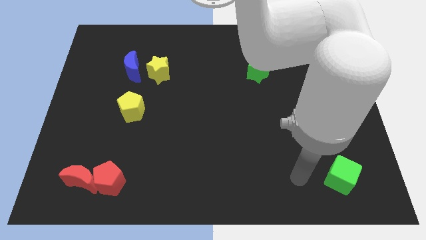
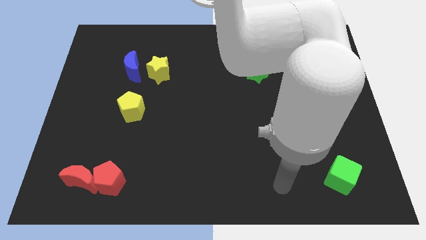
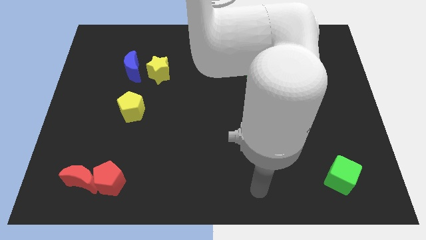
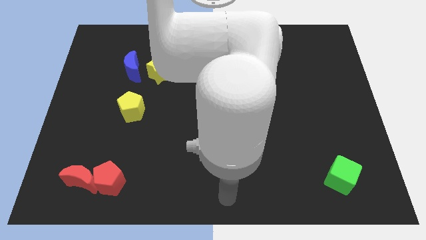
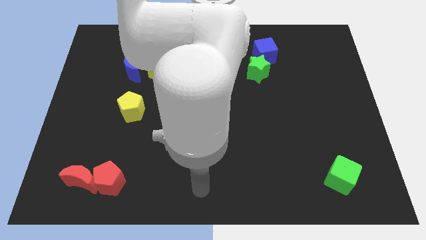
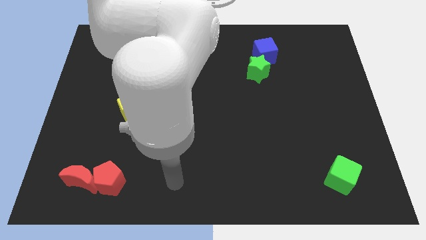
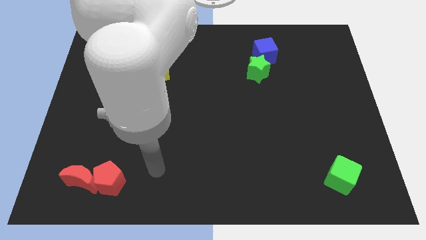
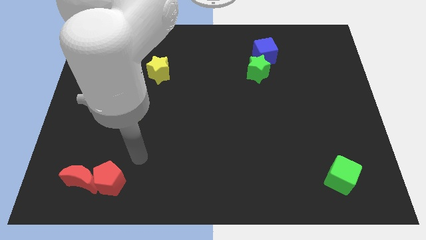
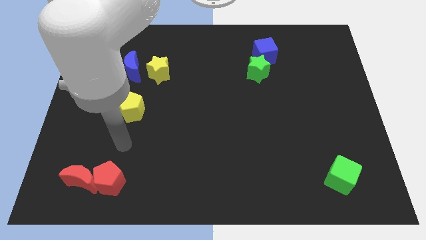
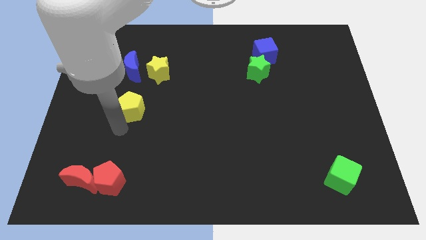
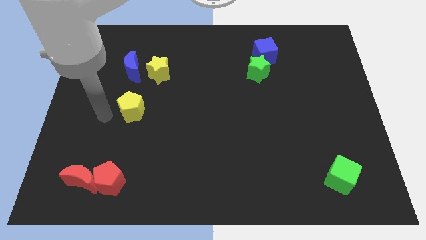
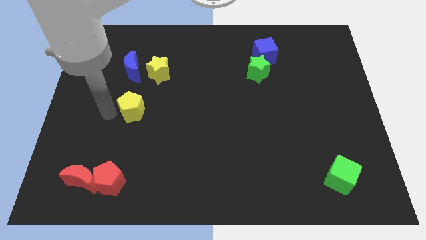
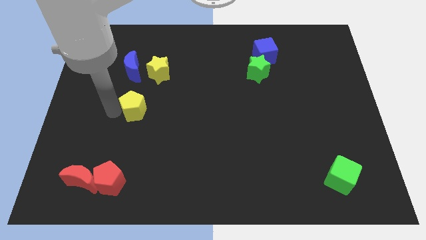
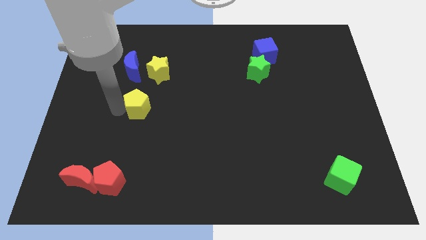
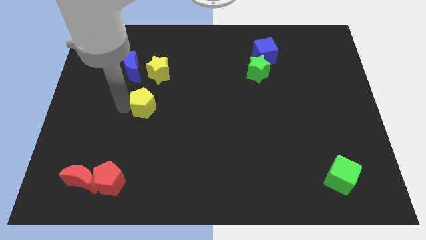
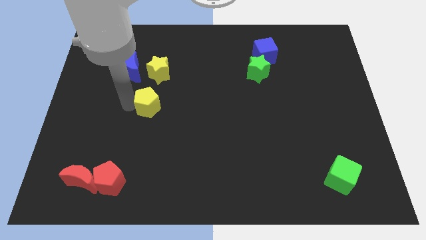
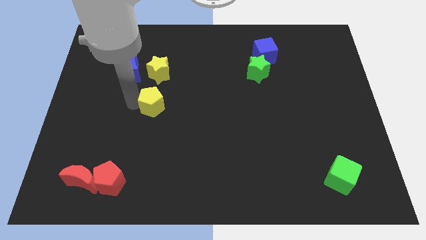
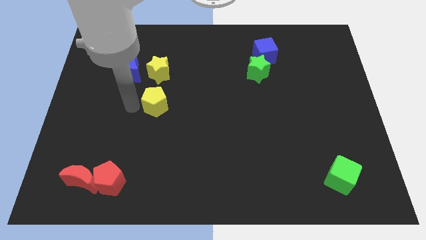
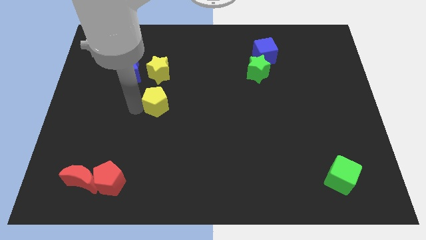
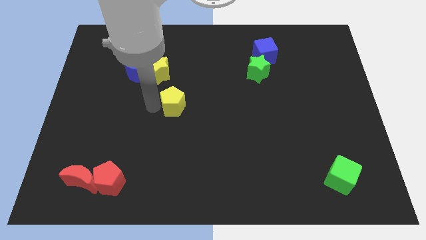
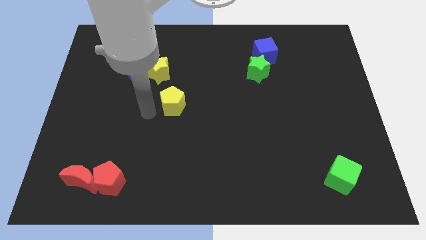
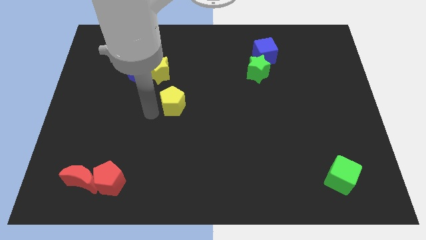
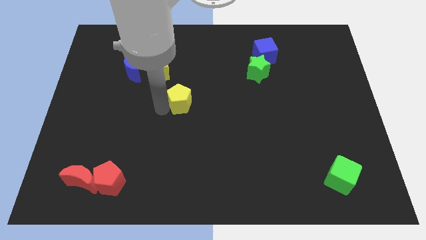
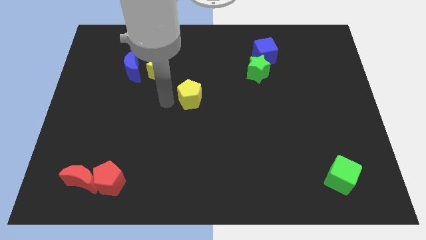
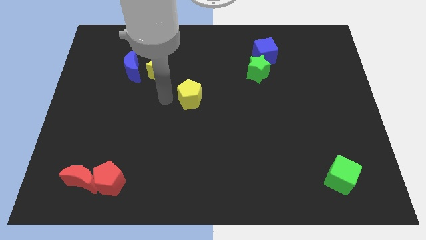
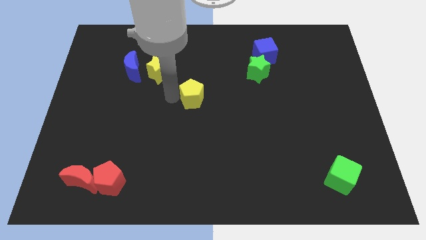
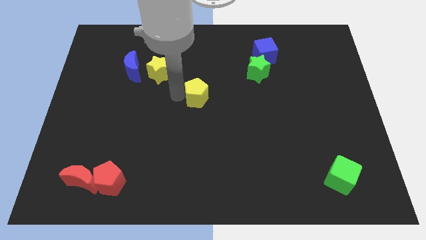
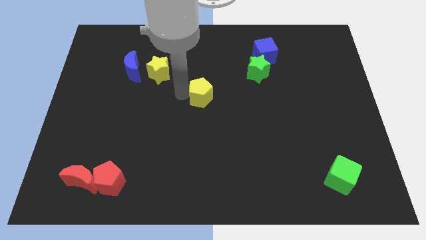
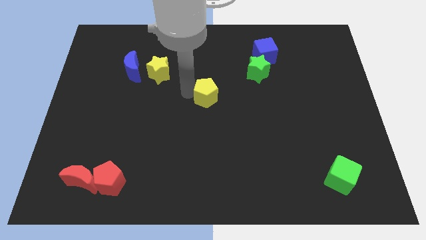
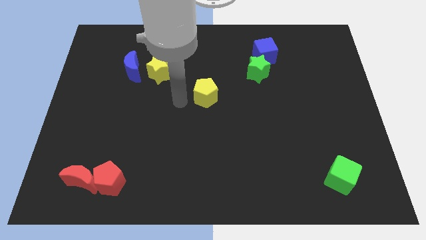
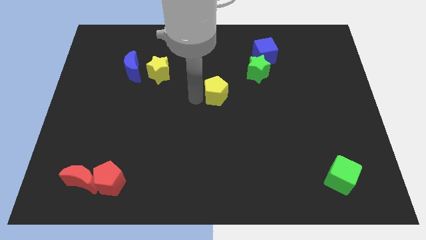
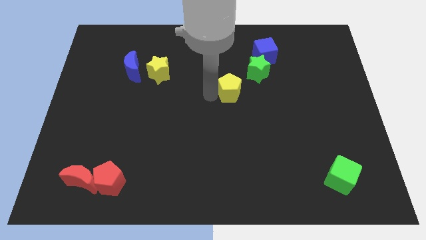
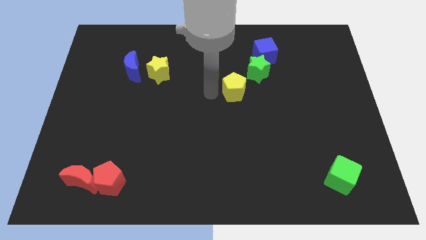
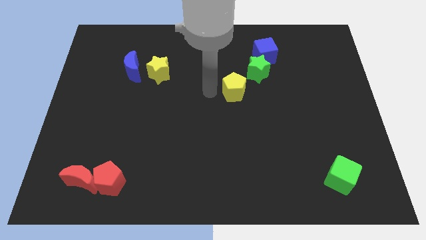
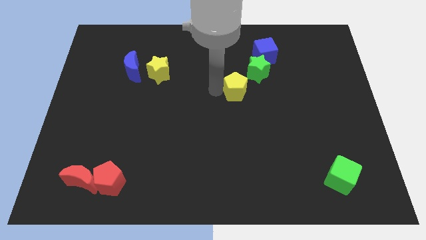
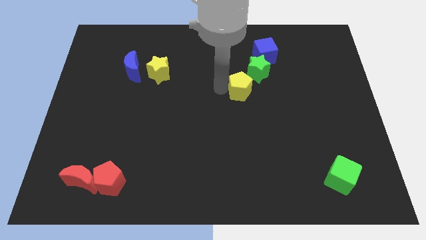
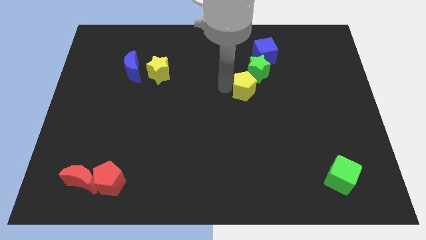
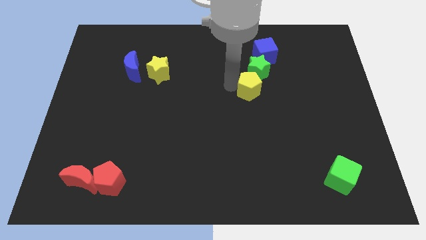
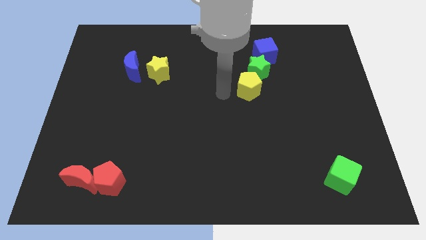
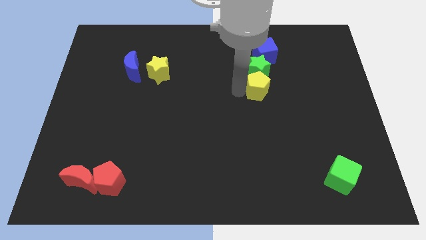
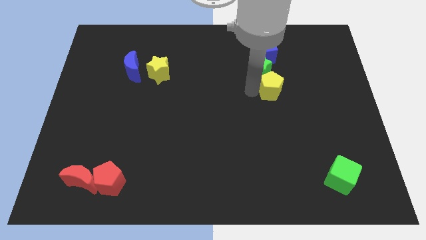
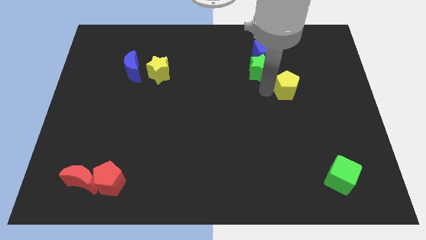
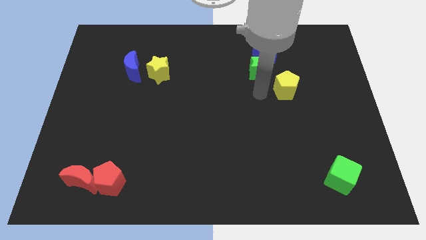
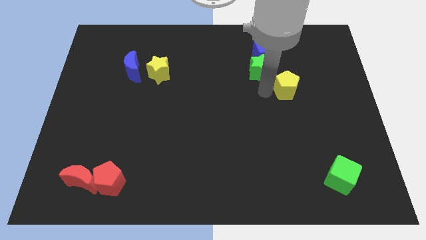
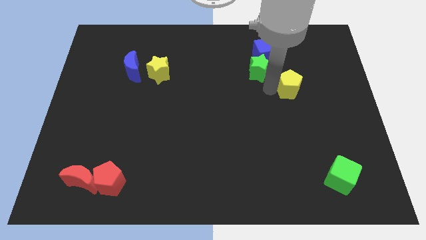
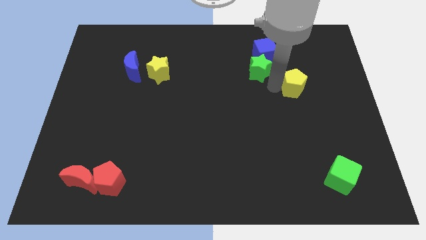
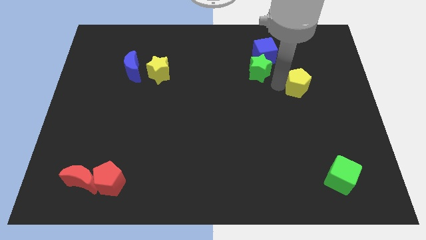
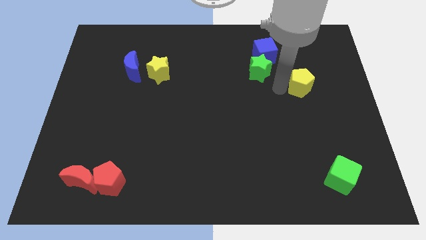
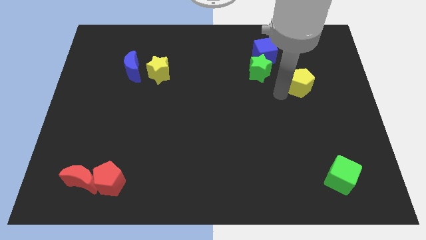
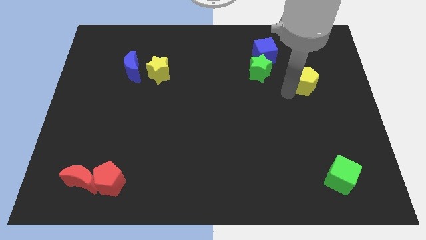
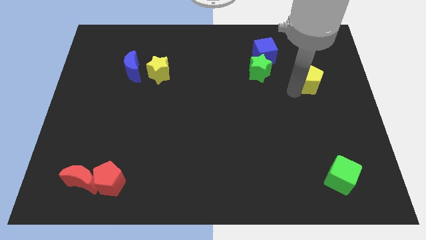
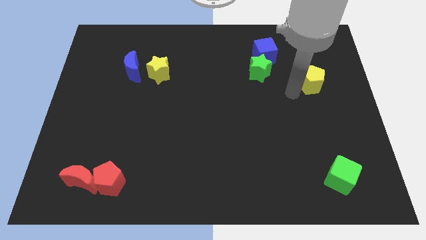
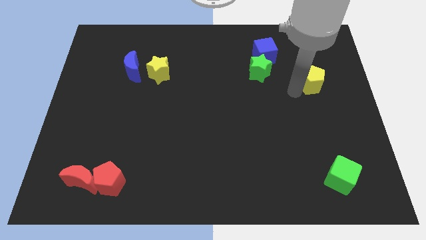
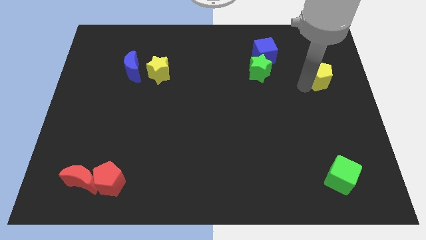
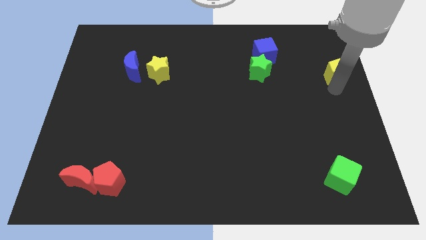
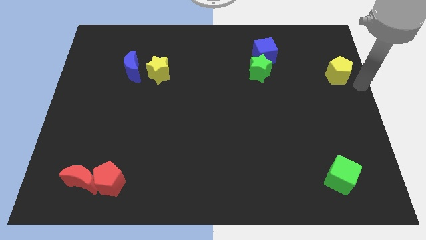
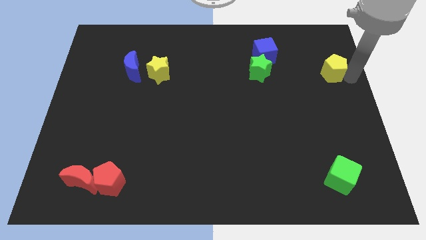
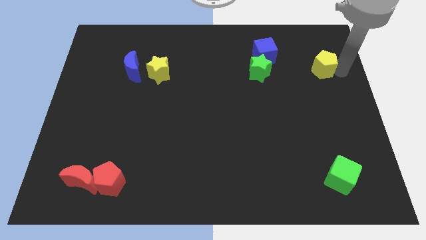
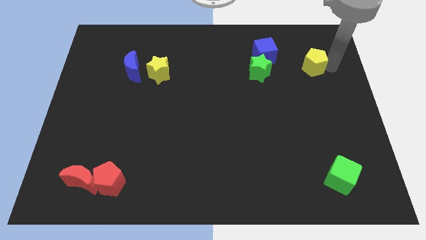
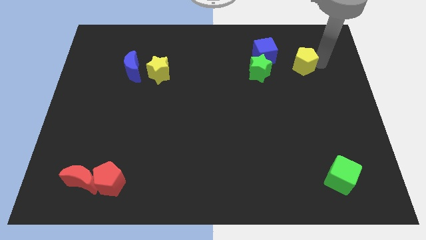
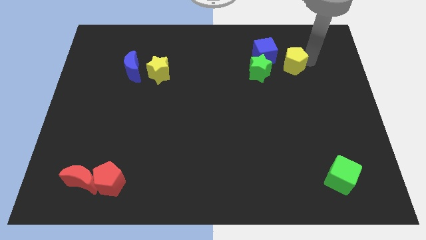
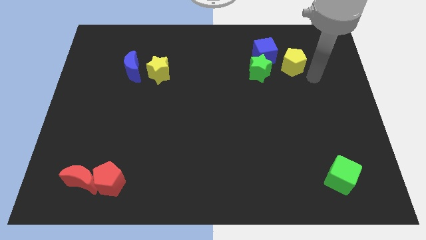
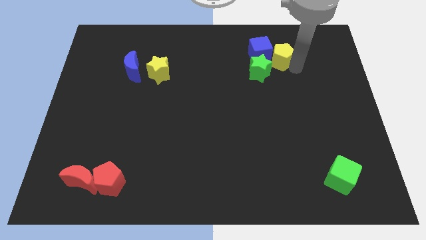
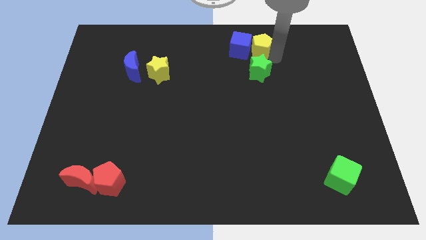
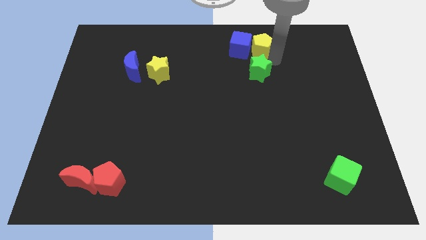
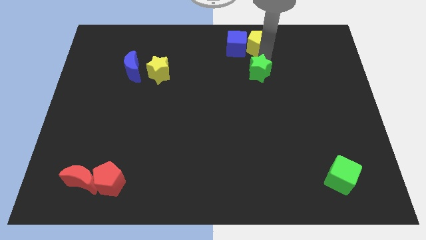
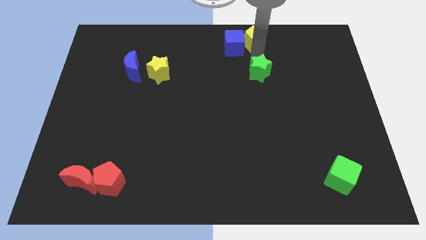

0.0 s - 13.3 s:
slide the yellow pentagon to the top side
